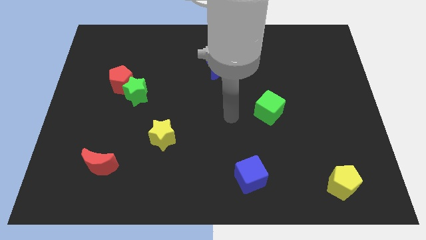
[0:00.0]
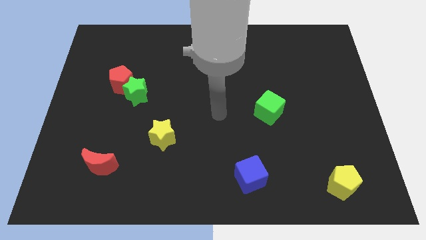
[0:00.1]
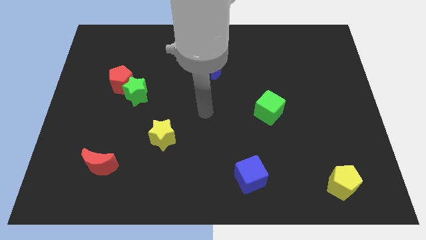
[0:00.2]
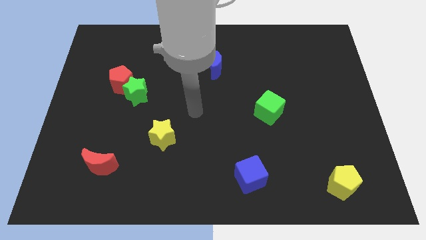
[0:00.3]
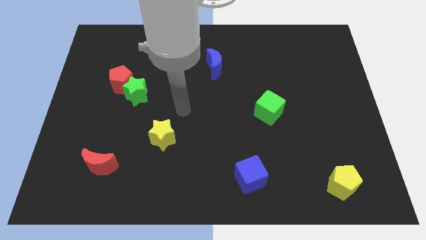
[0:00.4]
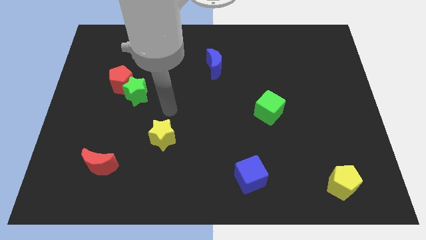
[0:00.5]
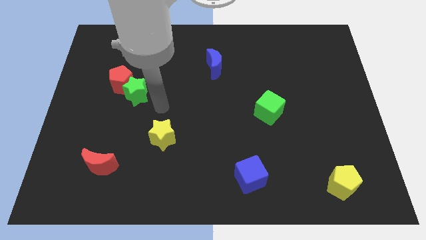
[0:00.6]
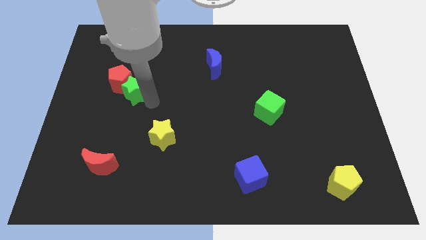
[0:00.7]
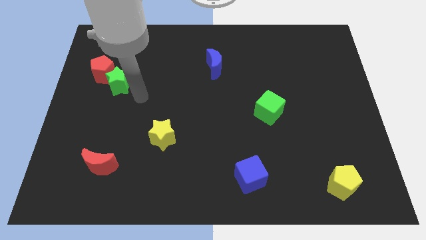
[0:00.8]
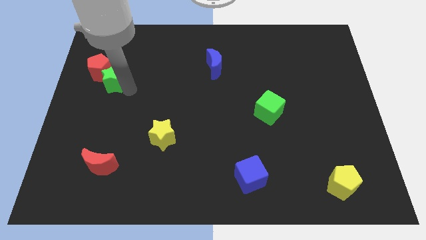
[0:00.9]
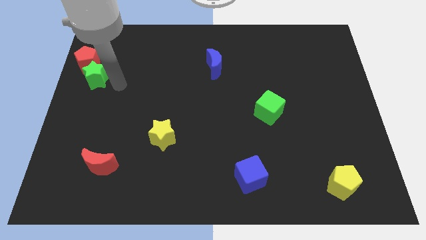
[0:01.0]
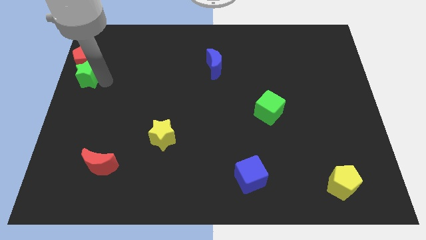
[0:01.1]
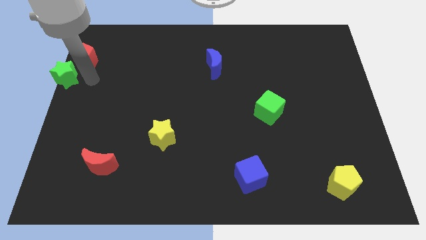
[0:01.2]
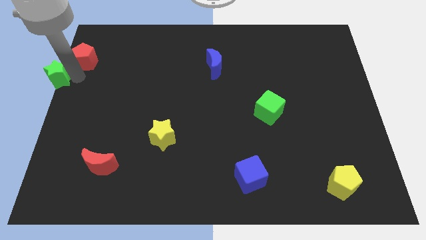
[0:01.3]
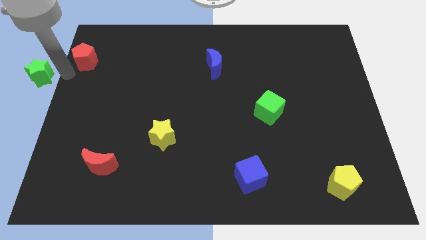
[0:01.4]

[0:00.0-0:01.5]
move the red pentagon away from the green star

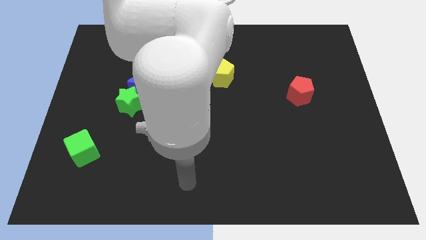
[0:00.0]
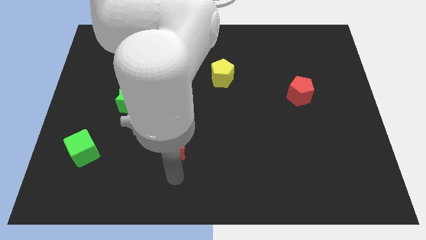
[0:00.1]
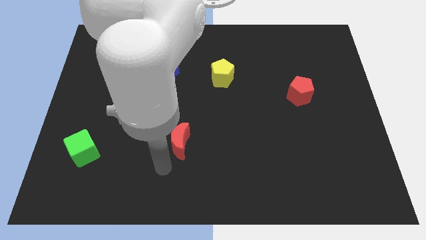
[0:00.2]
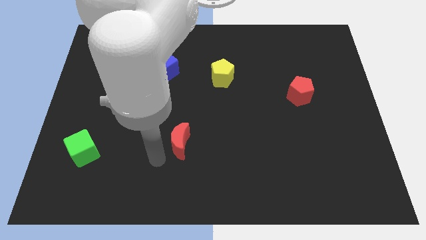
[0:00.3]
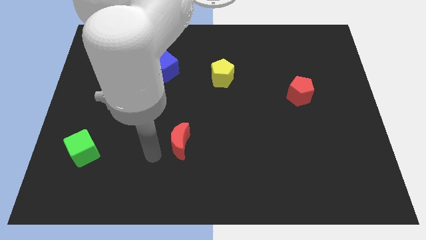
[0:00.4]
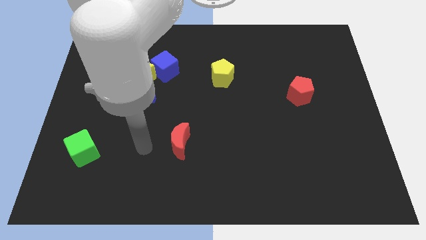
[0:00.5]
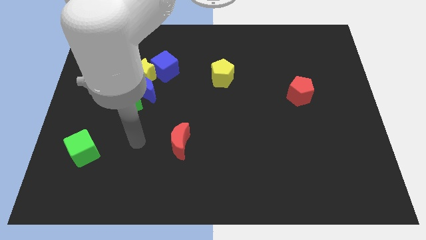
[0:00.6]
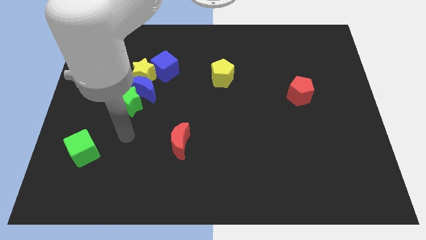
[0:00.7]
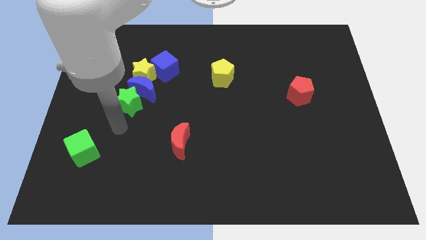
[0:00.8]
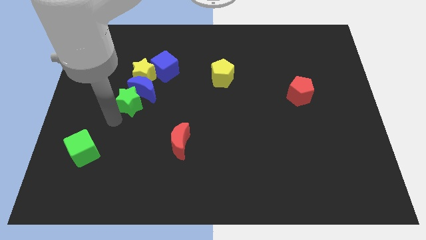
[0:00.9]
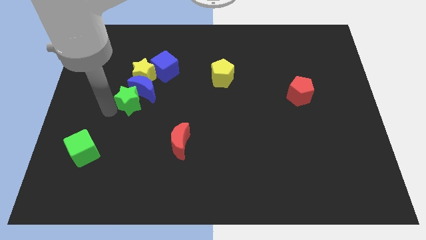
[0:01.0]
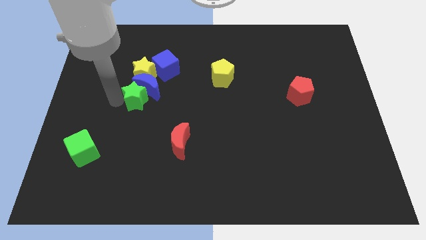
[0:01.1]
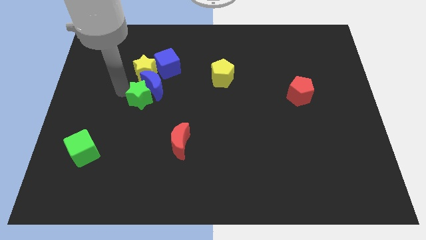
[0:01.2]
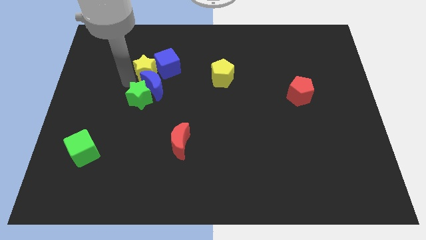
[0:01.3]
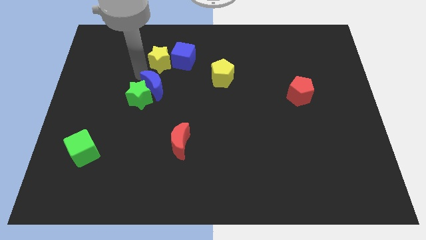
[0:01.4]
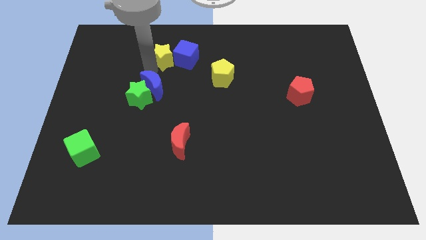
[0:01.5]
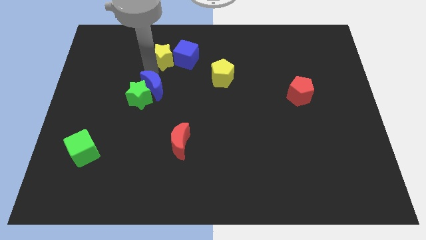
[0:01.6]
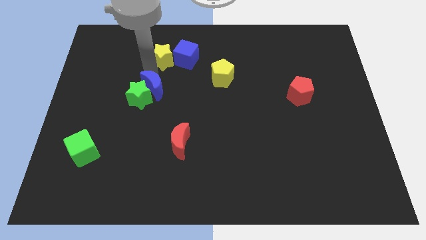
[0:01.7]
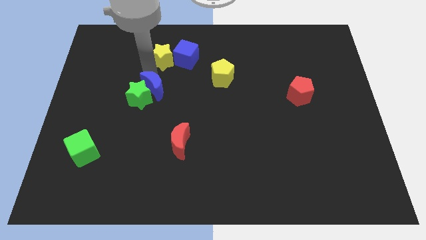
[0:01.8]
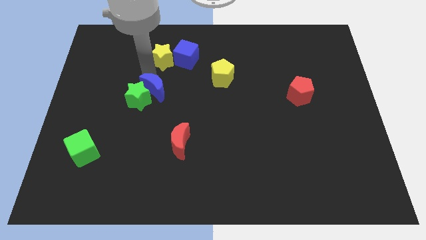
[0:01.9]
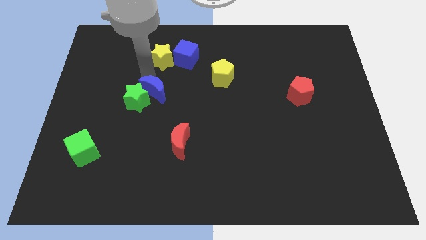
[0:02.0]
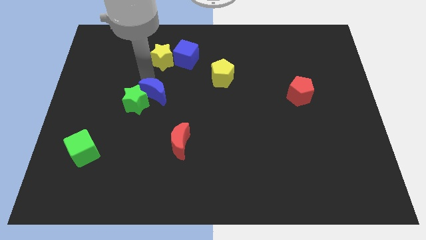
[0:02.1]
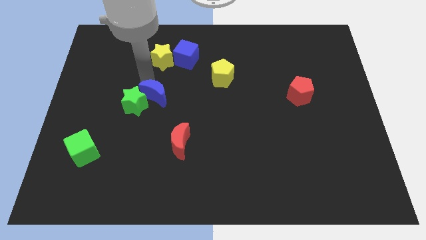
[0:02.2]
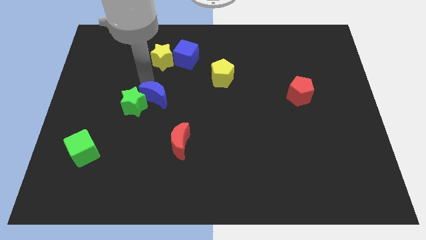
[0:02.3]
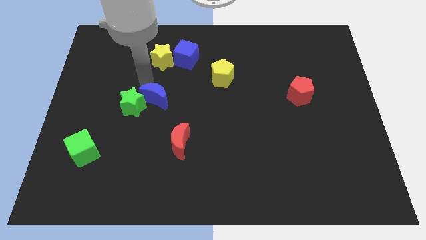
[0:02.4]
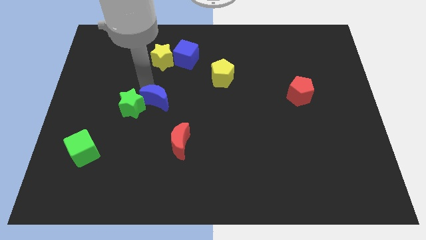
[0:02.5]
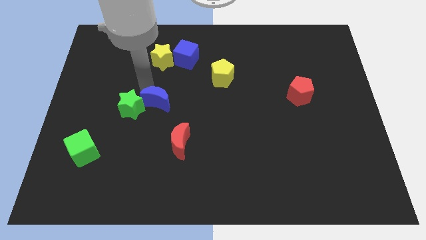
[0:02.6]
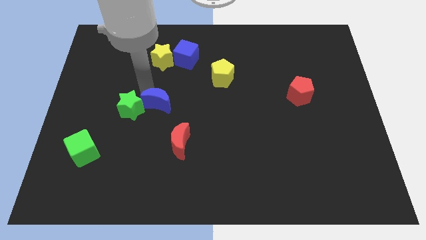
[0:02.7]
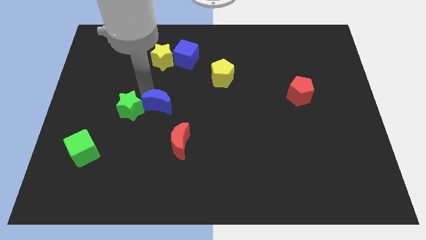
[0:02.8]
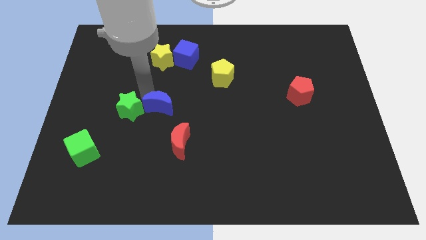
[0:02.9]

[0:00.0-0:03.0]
separate the blue moon from the green star, yellow star, and blue cube

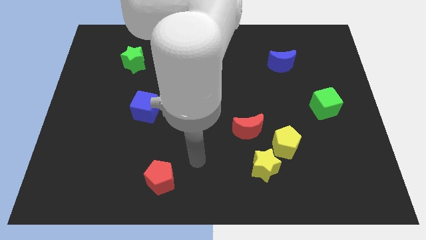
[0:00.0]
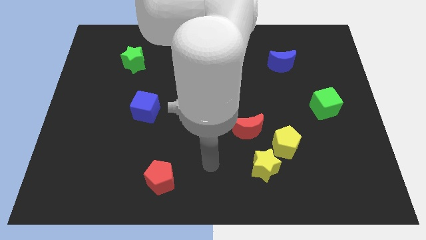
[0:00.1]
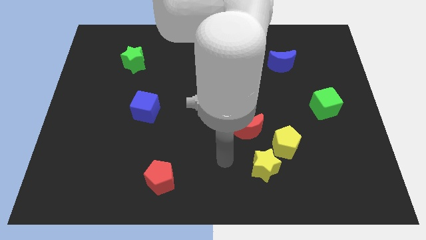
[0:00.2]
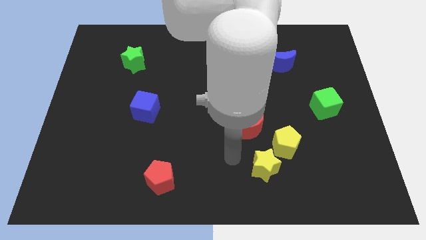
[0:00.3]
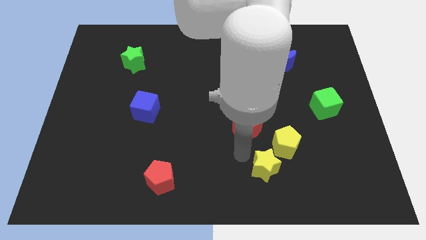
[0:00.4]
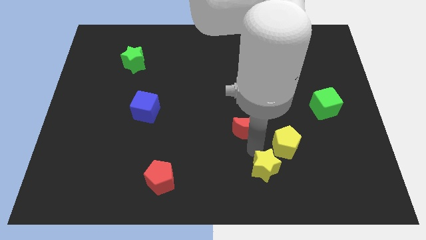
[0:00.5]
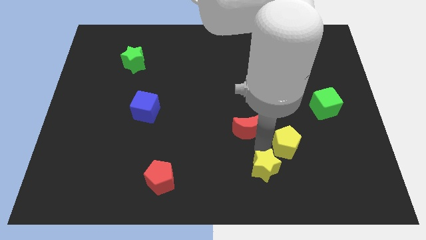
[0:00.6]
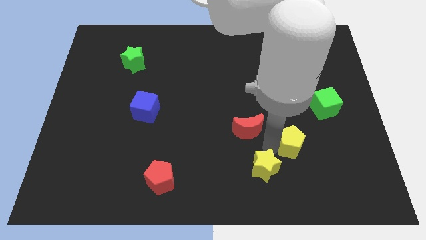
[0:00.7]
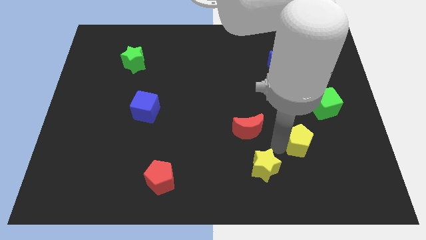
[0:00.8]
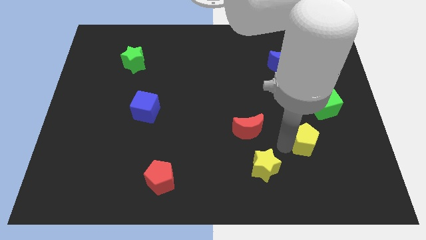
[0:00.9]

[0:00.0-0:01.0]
move the yellow pentagon away from the yellow star and red moon

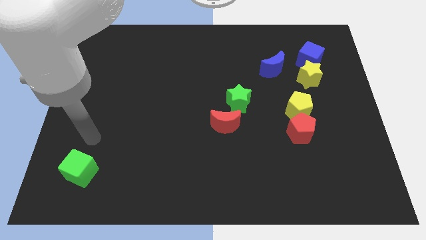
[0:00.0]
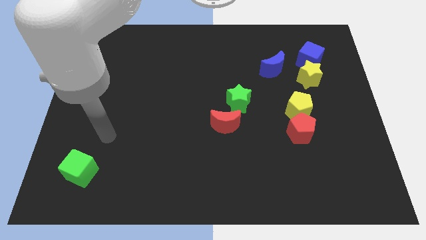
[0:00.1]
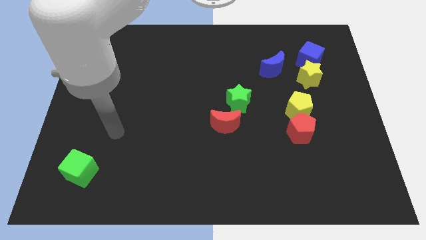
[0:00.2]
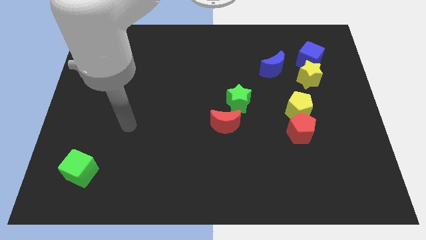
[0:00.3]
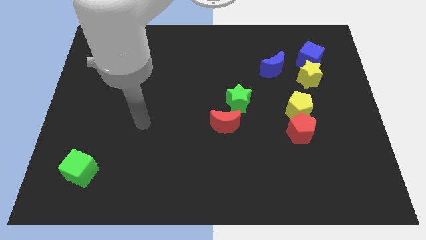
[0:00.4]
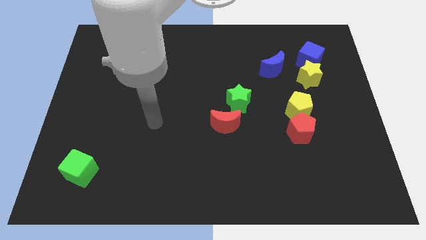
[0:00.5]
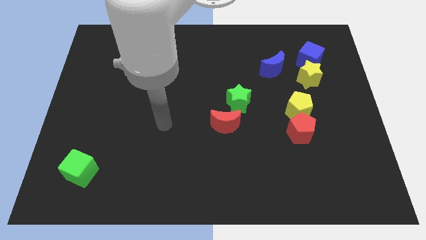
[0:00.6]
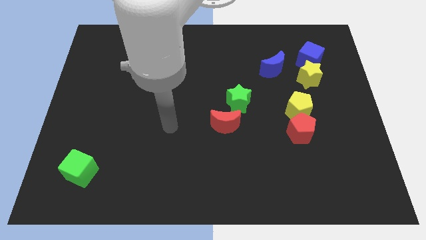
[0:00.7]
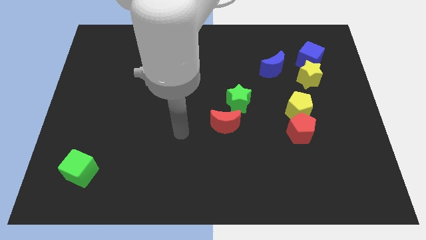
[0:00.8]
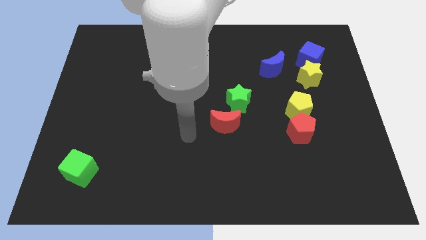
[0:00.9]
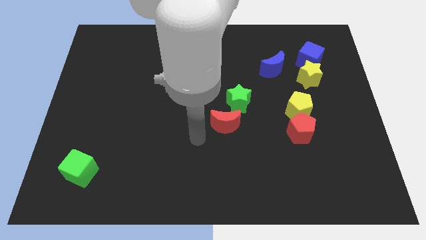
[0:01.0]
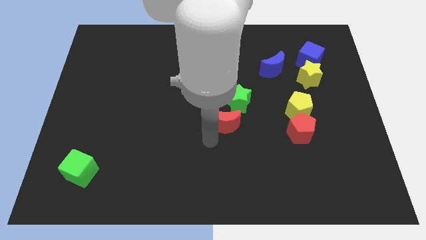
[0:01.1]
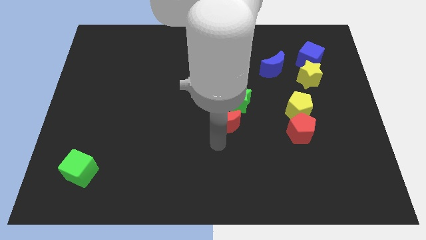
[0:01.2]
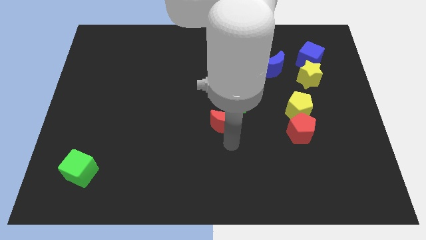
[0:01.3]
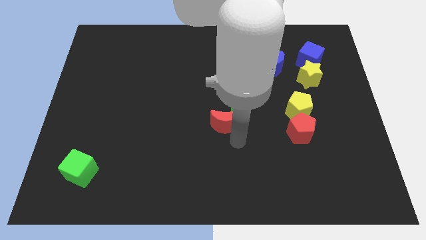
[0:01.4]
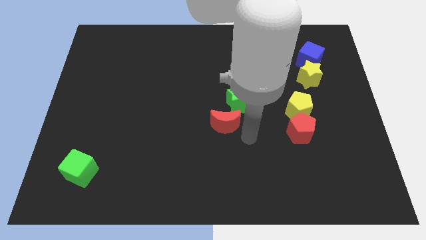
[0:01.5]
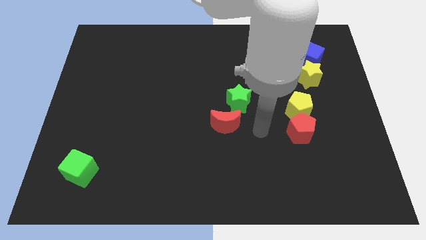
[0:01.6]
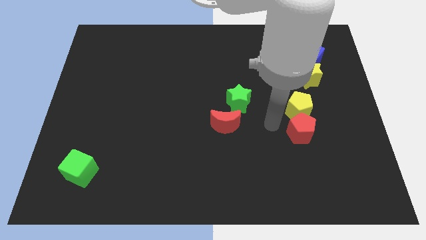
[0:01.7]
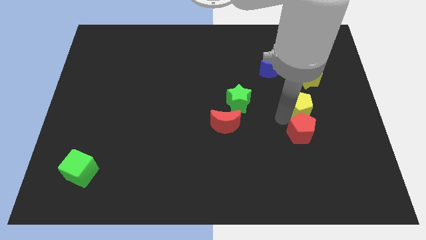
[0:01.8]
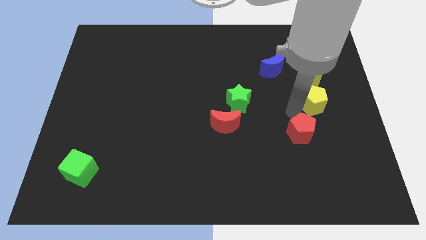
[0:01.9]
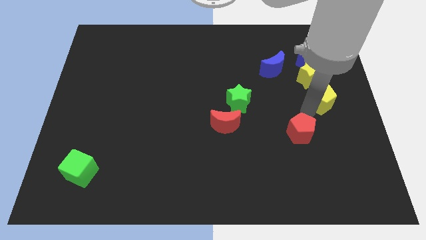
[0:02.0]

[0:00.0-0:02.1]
separate the red pentagon from the yellow pentagon

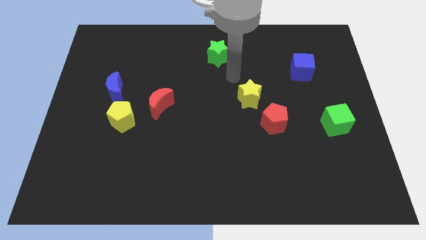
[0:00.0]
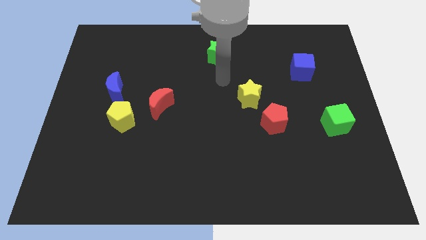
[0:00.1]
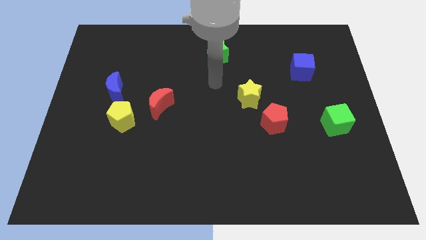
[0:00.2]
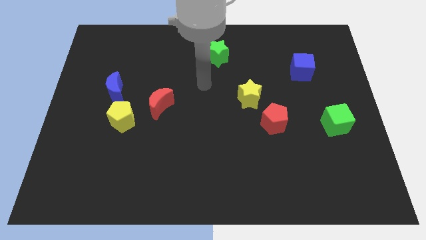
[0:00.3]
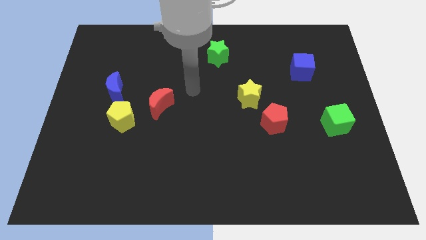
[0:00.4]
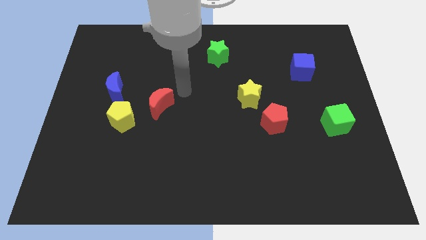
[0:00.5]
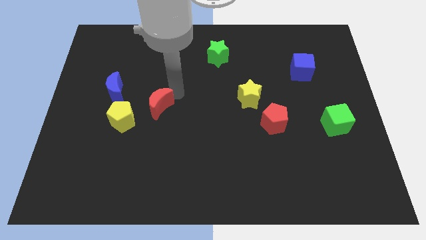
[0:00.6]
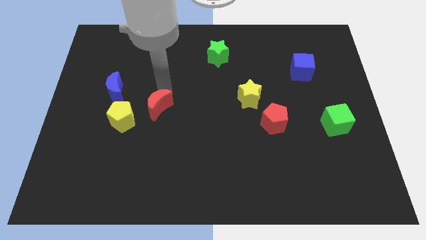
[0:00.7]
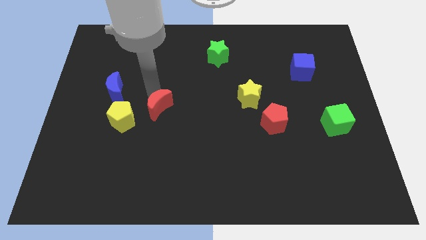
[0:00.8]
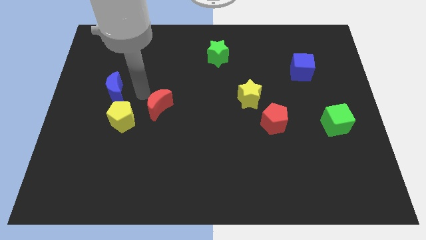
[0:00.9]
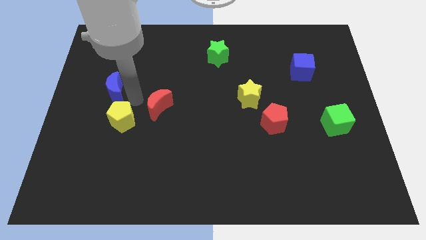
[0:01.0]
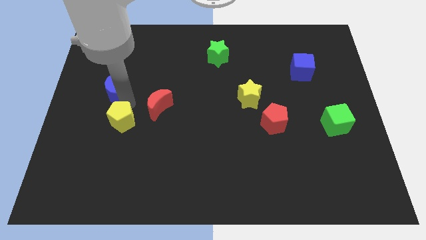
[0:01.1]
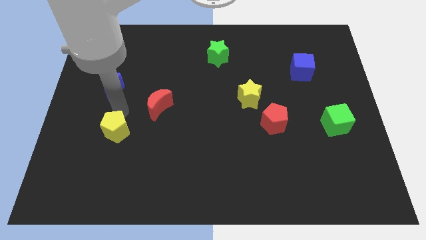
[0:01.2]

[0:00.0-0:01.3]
pull the blue moon apart from the yellow pentagon

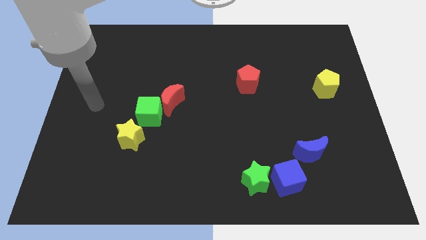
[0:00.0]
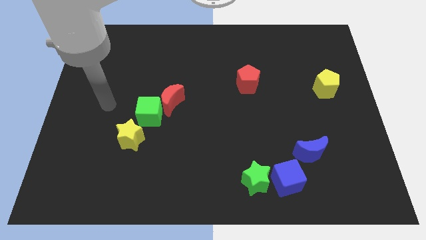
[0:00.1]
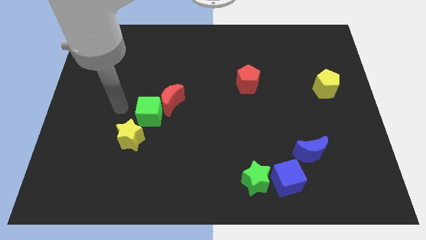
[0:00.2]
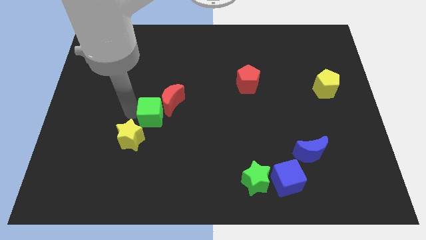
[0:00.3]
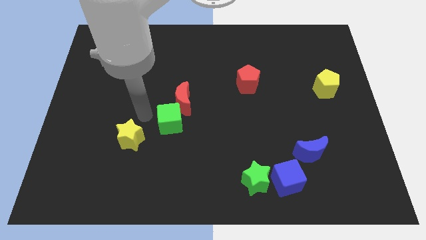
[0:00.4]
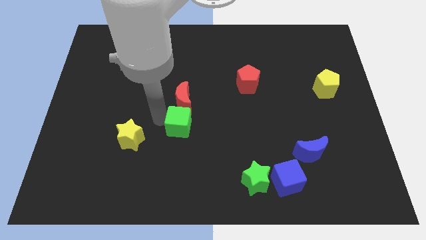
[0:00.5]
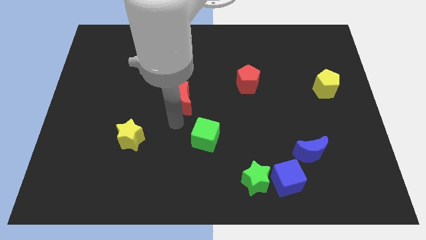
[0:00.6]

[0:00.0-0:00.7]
move the red moon away from the green cube
